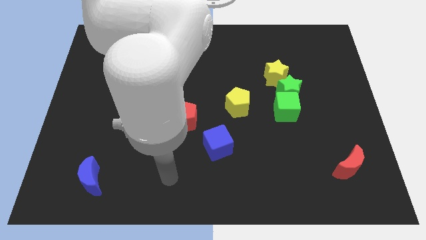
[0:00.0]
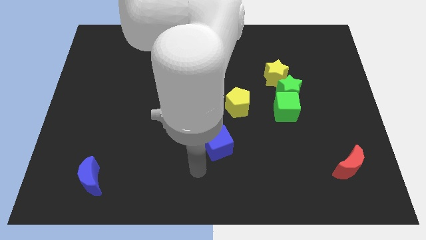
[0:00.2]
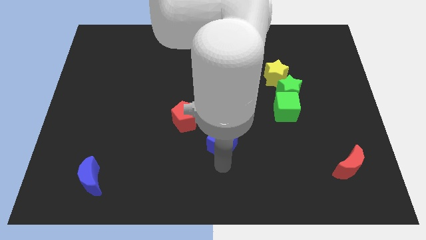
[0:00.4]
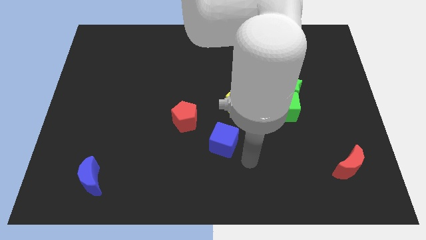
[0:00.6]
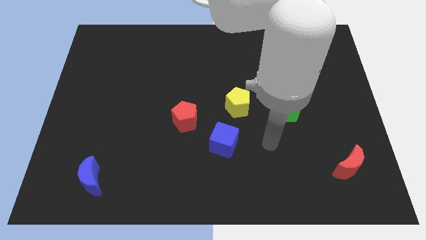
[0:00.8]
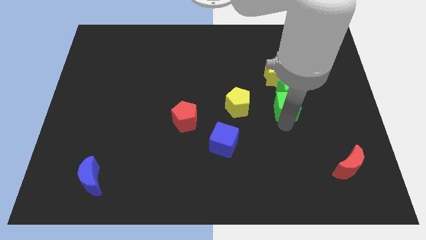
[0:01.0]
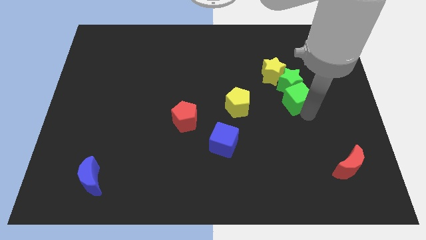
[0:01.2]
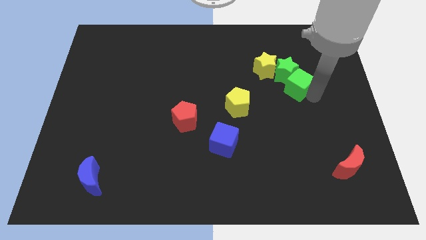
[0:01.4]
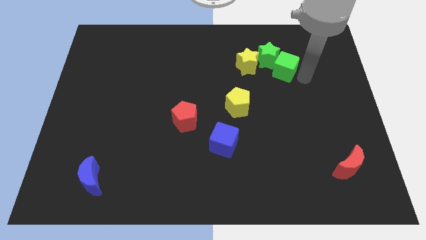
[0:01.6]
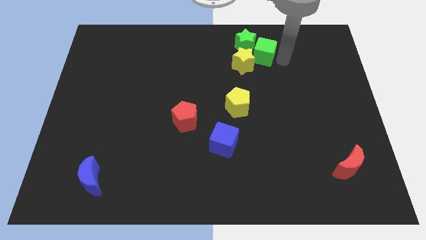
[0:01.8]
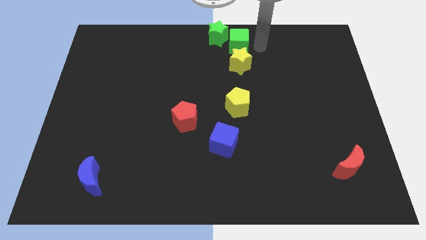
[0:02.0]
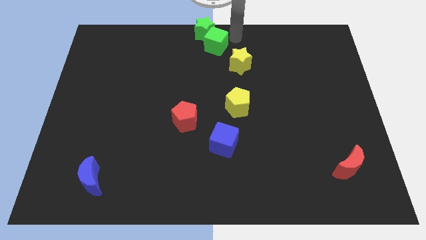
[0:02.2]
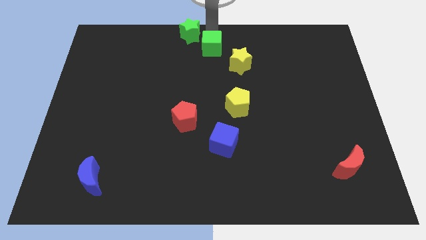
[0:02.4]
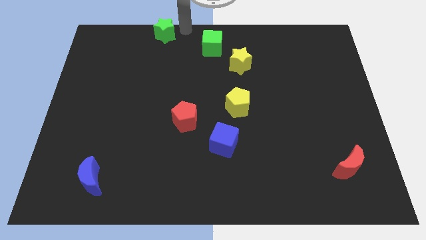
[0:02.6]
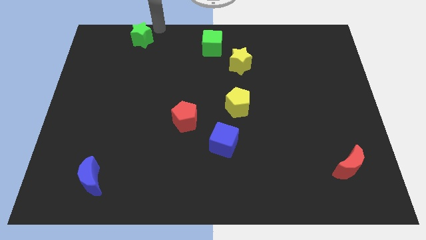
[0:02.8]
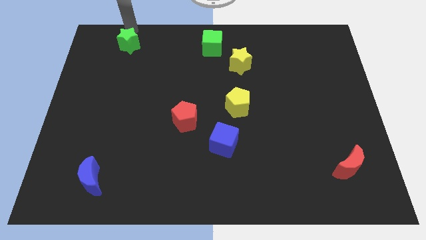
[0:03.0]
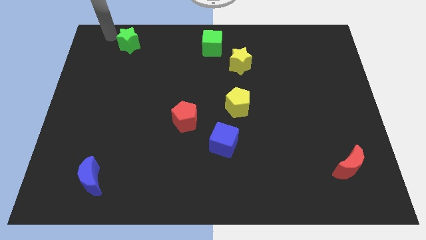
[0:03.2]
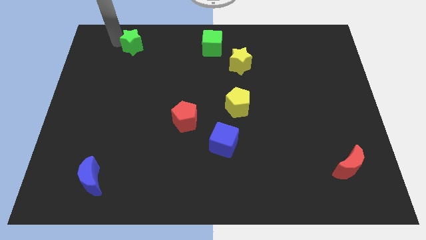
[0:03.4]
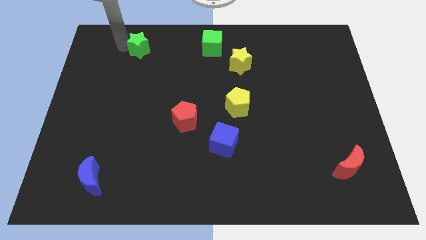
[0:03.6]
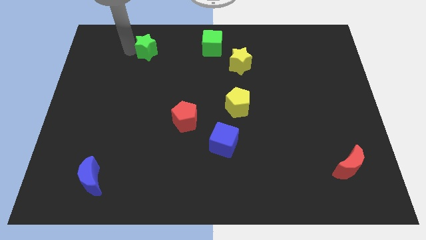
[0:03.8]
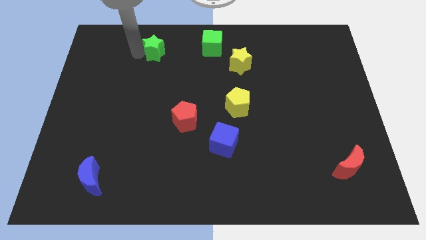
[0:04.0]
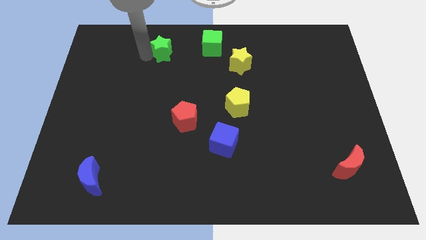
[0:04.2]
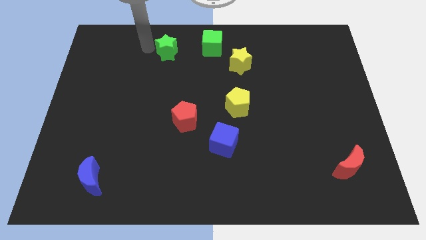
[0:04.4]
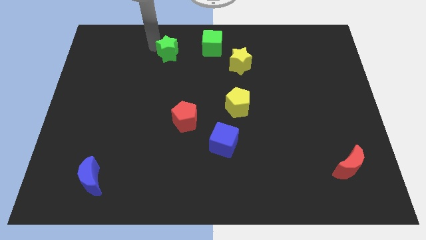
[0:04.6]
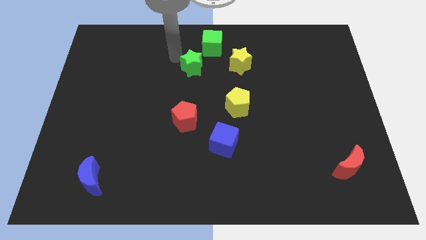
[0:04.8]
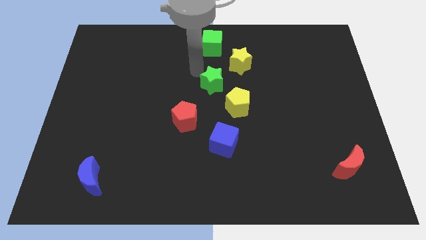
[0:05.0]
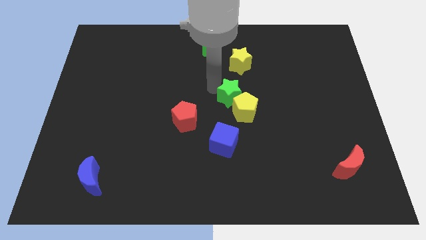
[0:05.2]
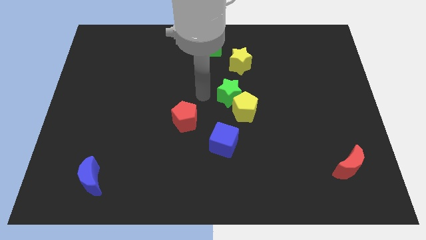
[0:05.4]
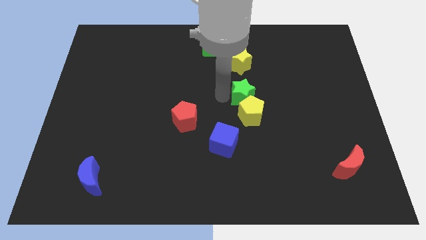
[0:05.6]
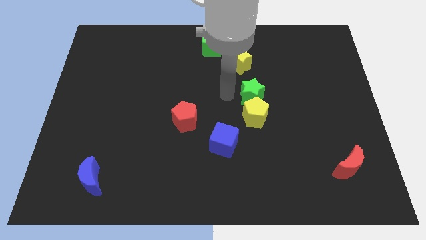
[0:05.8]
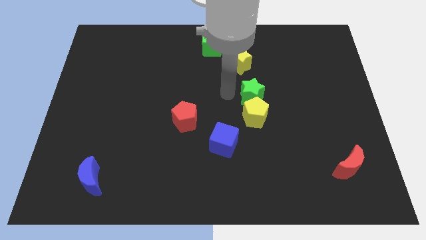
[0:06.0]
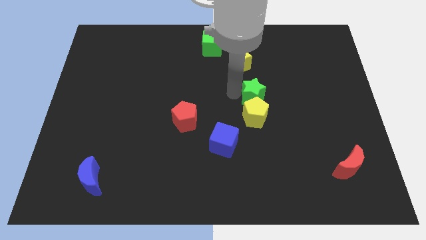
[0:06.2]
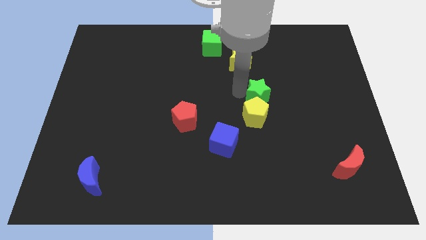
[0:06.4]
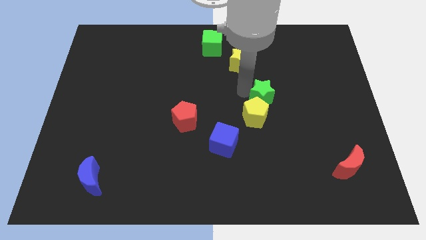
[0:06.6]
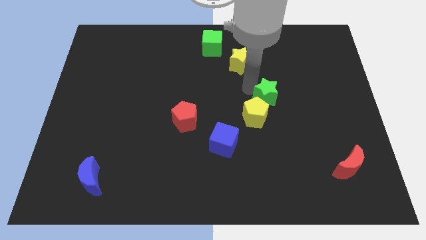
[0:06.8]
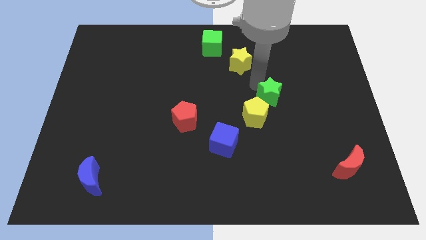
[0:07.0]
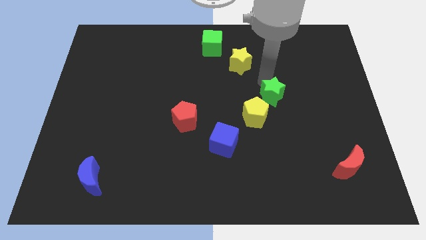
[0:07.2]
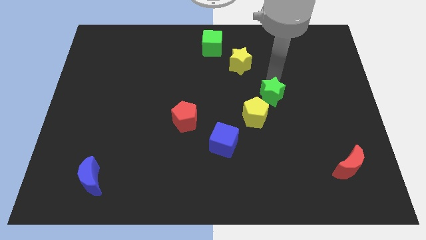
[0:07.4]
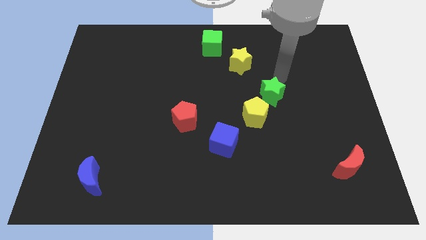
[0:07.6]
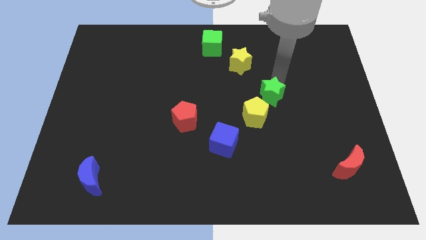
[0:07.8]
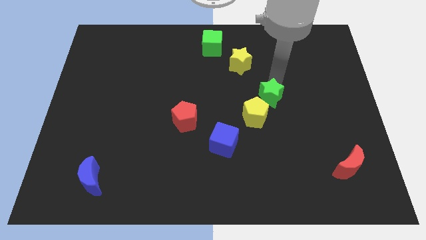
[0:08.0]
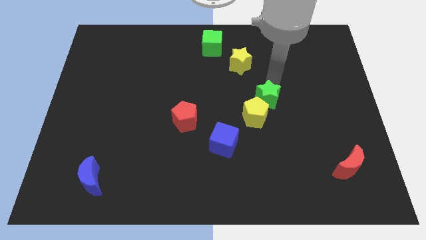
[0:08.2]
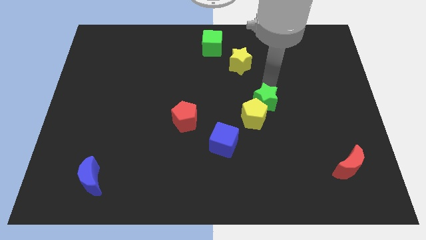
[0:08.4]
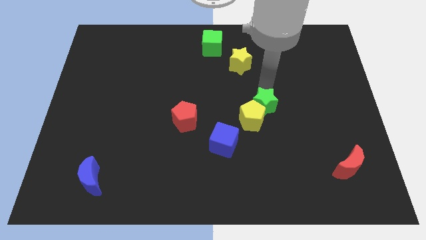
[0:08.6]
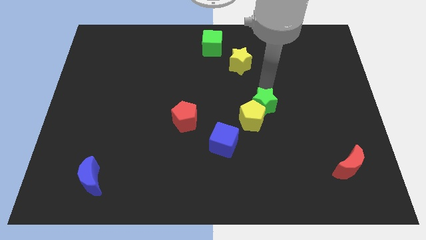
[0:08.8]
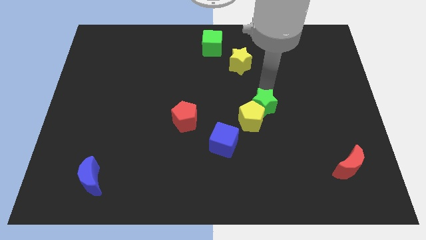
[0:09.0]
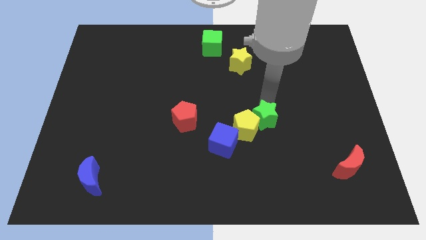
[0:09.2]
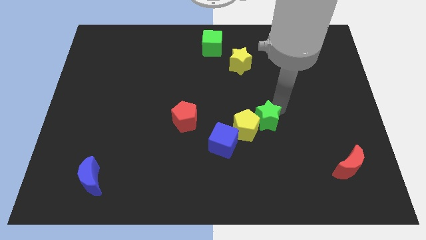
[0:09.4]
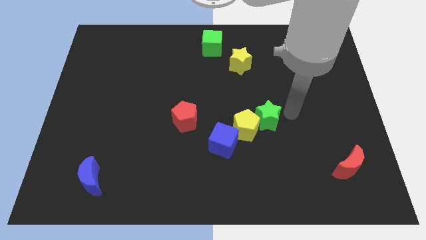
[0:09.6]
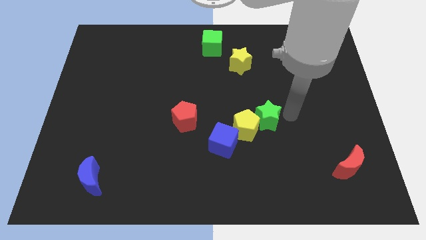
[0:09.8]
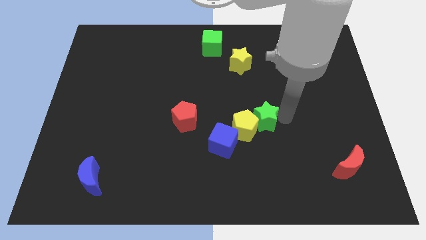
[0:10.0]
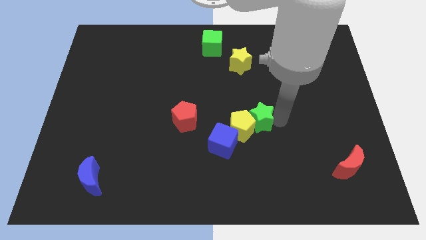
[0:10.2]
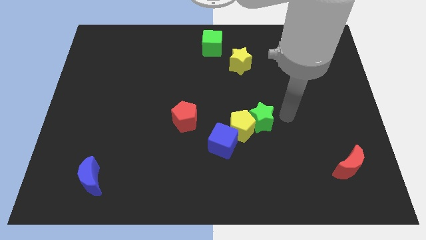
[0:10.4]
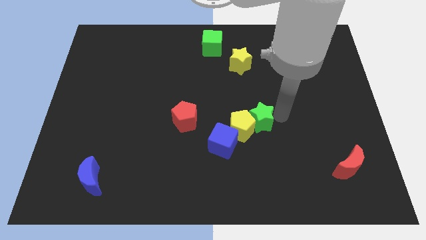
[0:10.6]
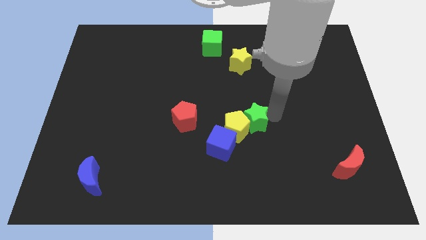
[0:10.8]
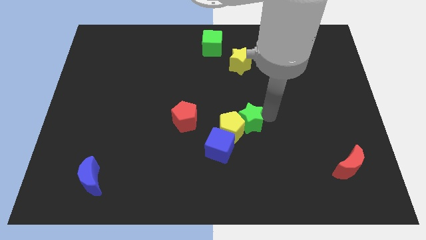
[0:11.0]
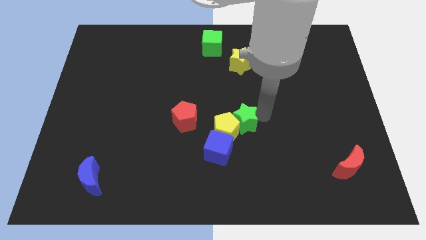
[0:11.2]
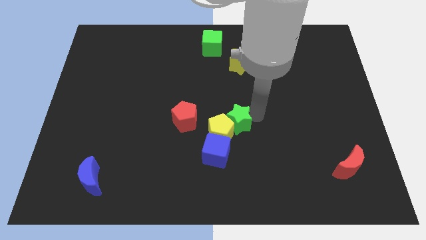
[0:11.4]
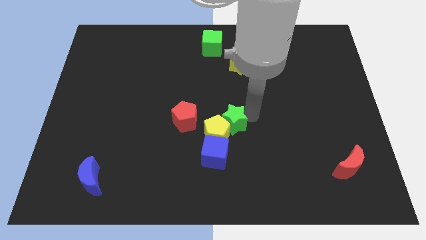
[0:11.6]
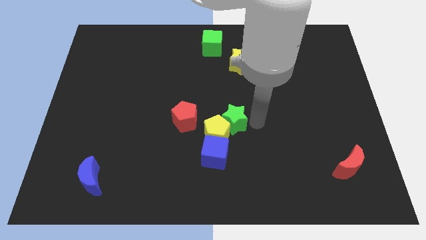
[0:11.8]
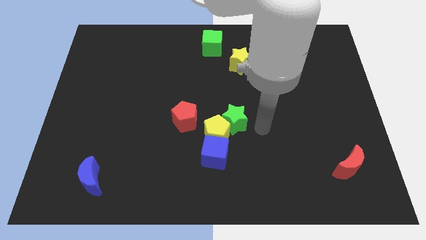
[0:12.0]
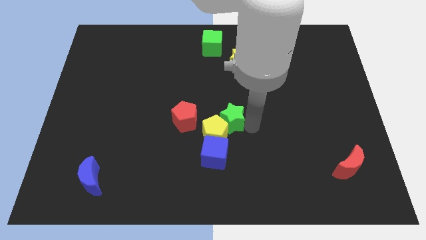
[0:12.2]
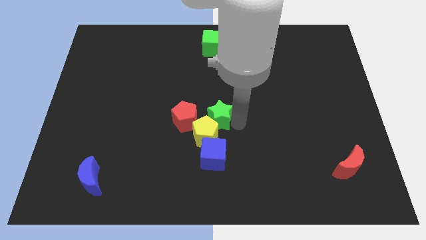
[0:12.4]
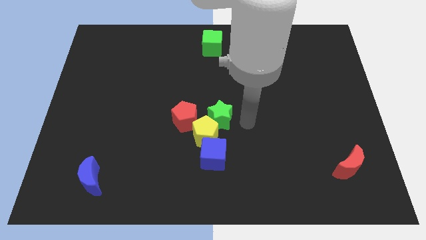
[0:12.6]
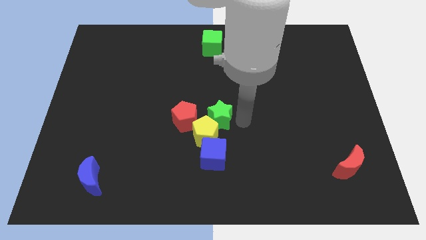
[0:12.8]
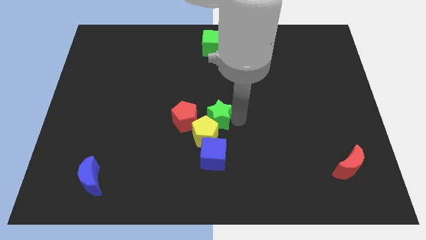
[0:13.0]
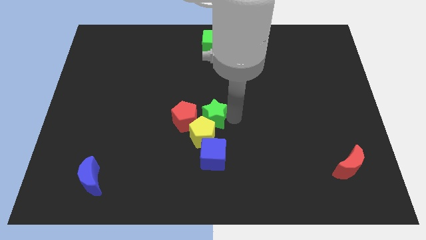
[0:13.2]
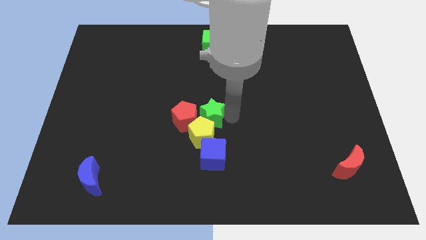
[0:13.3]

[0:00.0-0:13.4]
push the green star next to the red pentagon

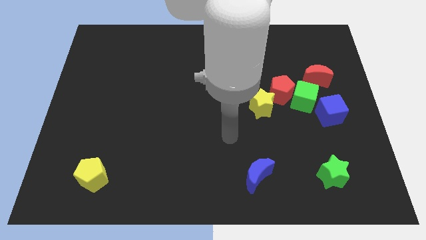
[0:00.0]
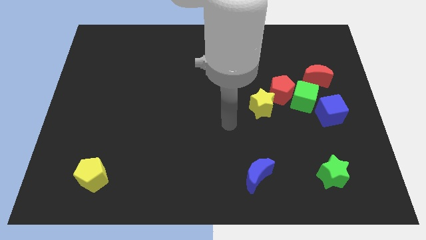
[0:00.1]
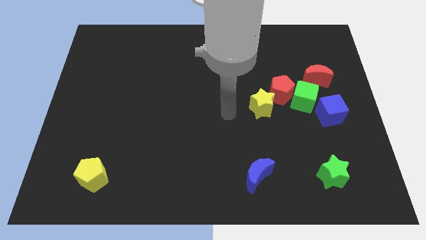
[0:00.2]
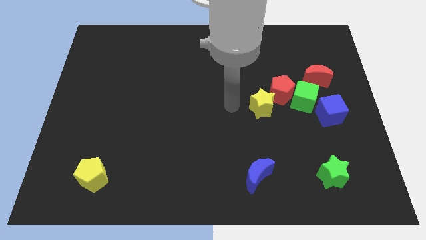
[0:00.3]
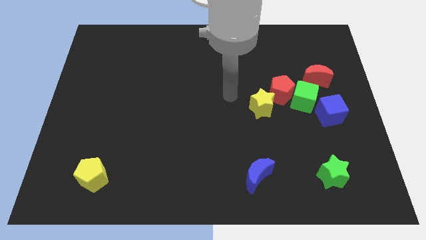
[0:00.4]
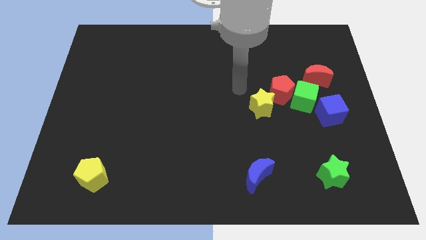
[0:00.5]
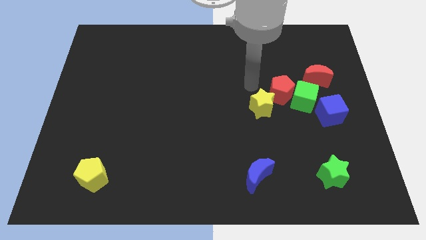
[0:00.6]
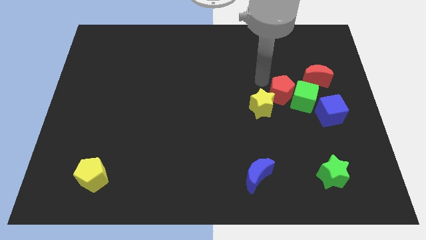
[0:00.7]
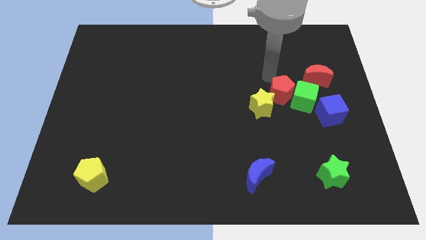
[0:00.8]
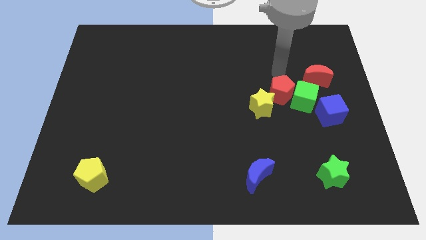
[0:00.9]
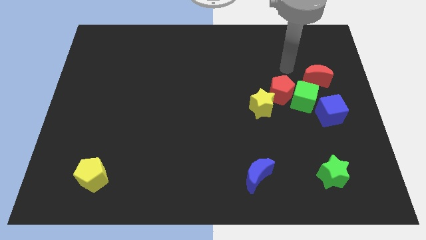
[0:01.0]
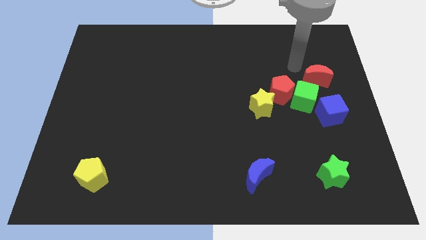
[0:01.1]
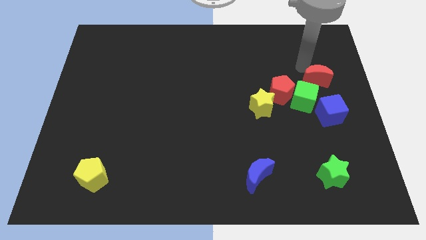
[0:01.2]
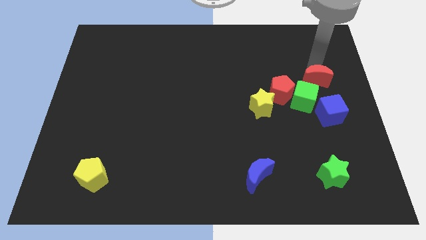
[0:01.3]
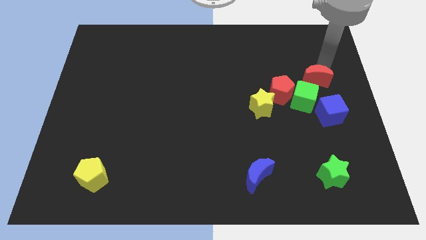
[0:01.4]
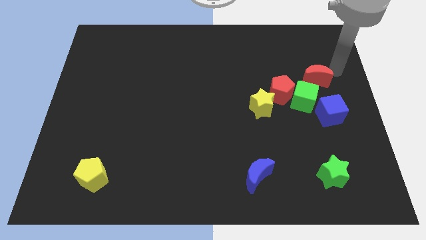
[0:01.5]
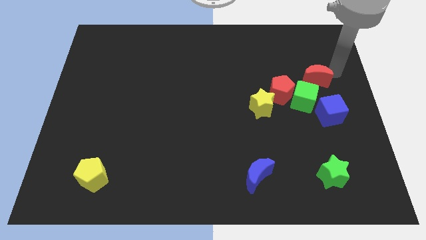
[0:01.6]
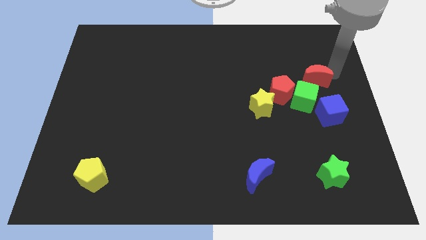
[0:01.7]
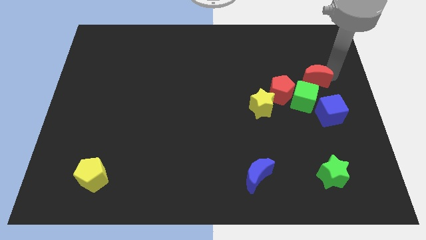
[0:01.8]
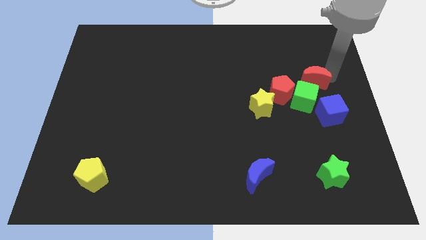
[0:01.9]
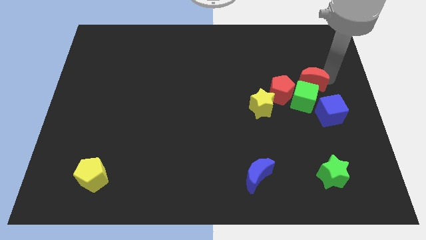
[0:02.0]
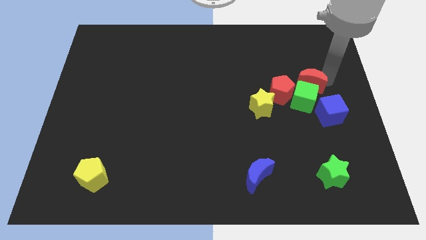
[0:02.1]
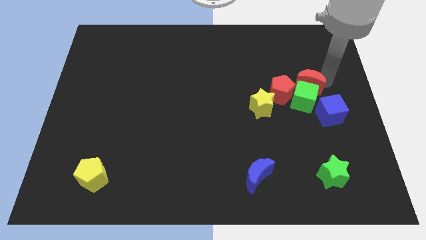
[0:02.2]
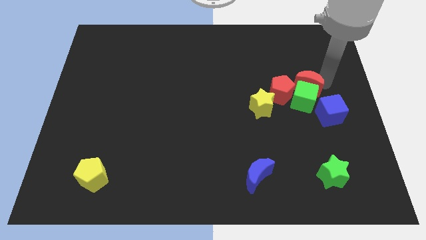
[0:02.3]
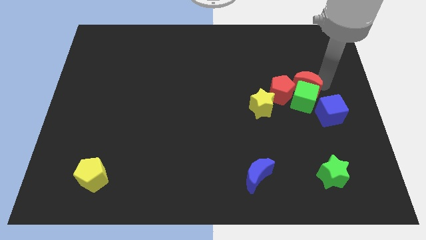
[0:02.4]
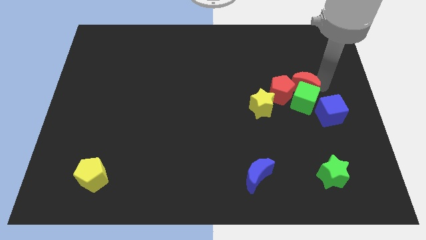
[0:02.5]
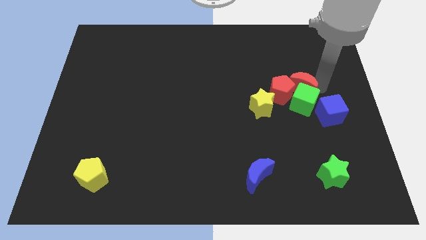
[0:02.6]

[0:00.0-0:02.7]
slide the red moon close to the red pentagon
